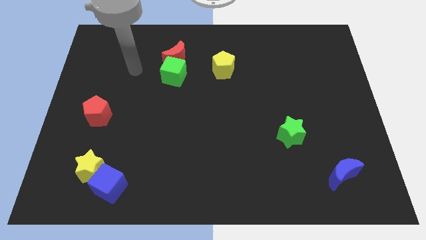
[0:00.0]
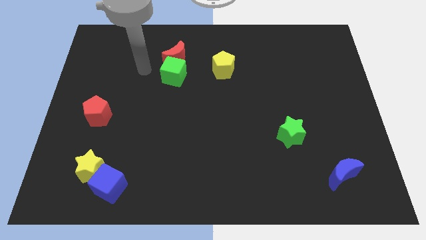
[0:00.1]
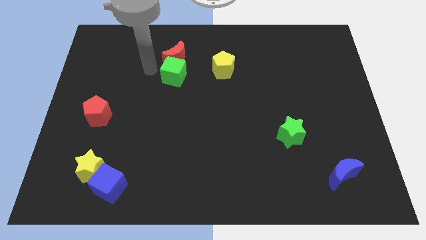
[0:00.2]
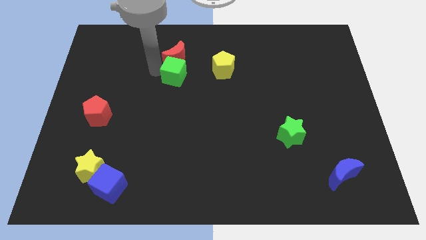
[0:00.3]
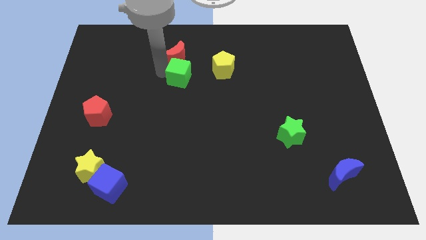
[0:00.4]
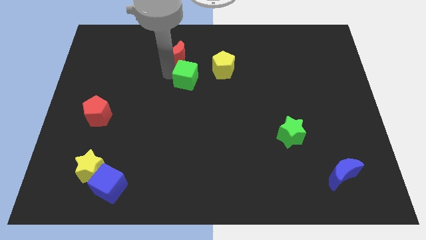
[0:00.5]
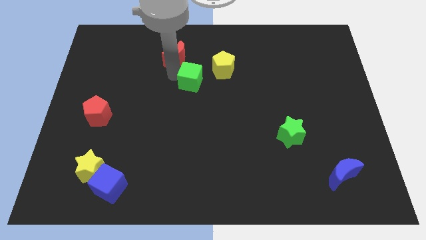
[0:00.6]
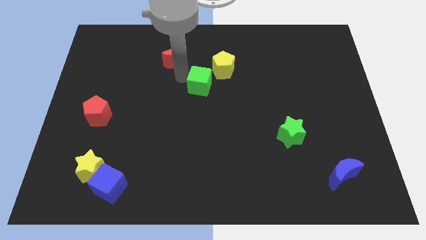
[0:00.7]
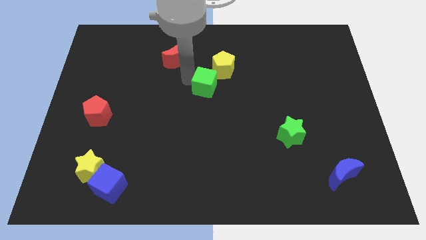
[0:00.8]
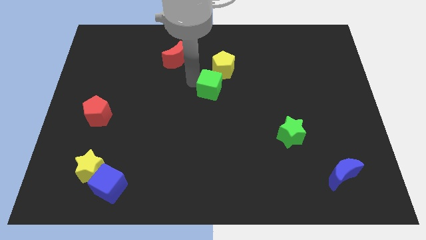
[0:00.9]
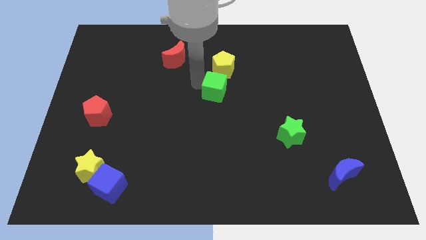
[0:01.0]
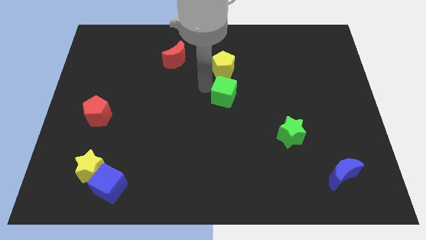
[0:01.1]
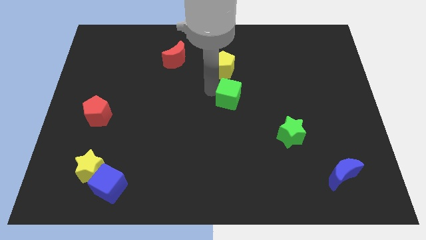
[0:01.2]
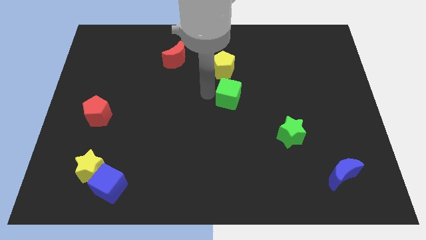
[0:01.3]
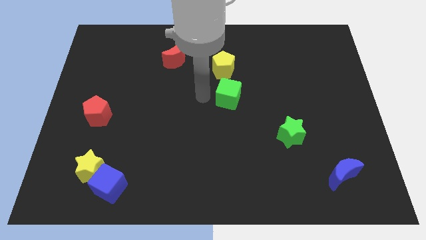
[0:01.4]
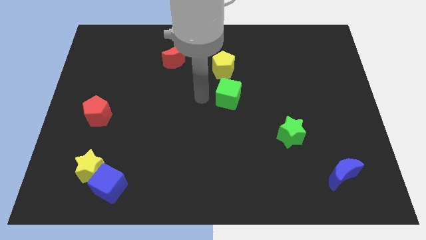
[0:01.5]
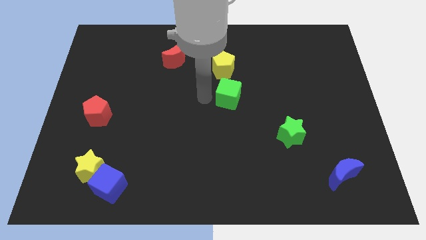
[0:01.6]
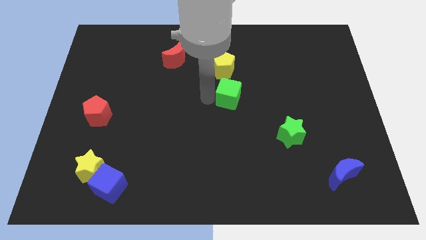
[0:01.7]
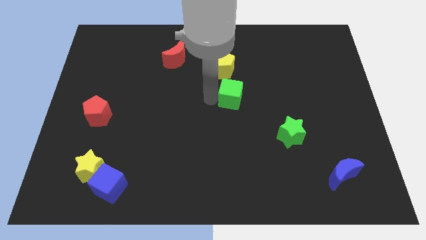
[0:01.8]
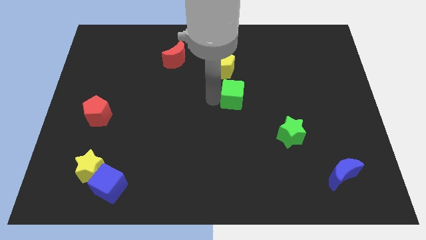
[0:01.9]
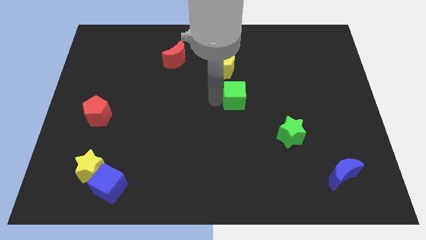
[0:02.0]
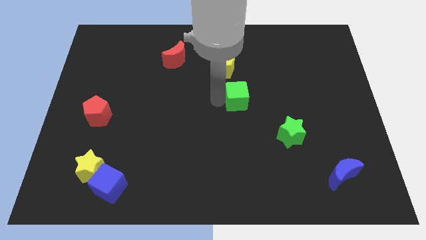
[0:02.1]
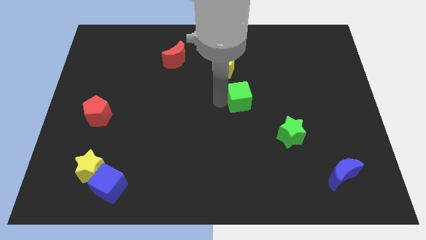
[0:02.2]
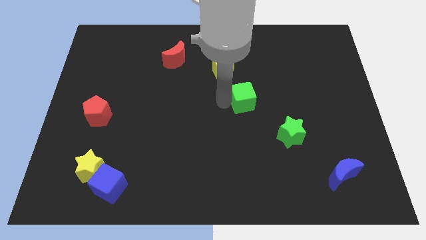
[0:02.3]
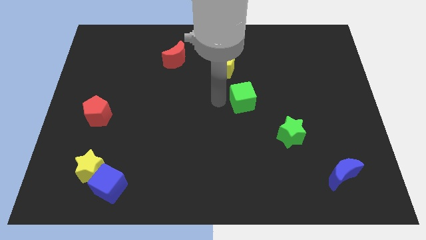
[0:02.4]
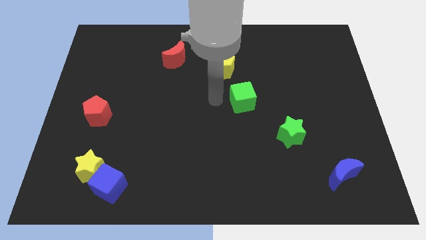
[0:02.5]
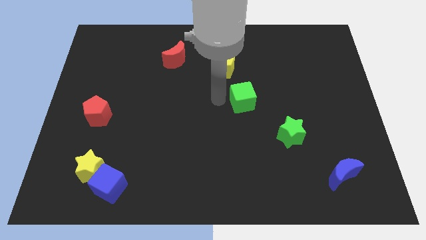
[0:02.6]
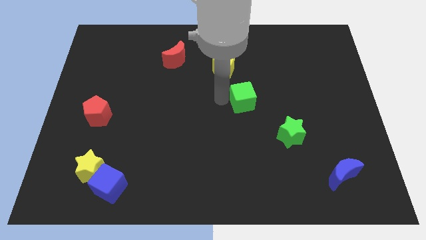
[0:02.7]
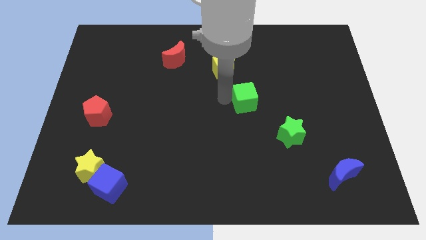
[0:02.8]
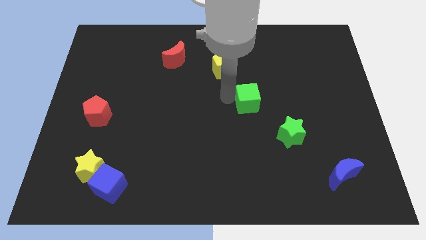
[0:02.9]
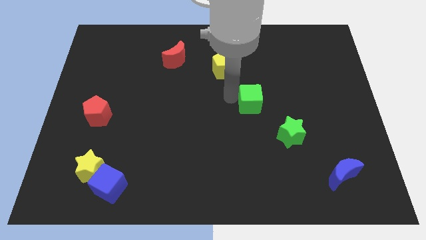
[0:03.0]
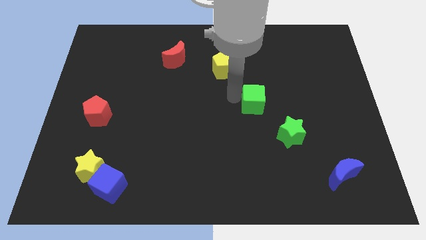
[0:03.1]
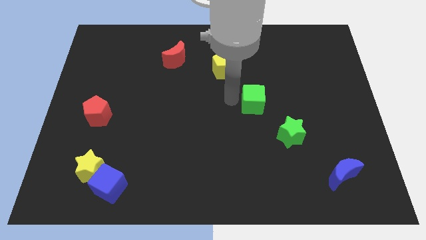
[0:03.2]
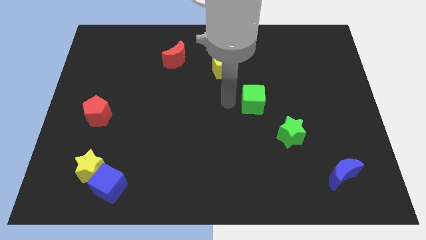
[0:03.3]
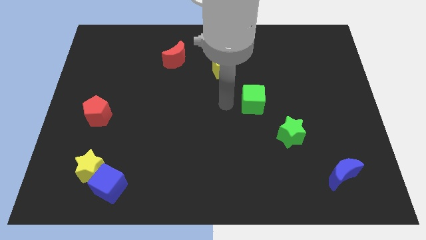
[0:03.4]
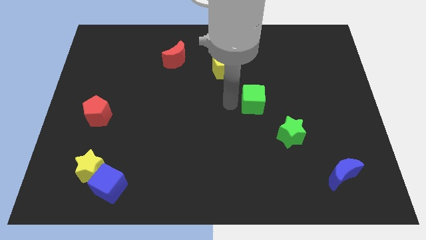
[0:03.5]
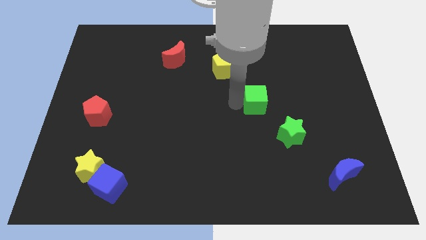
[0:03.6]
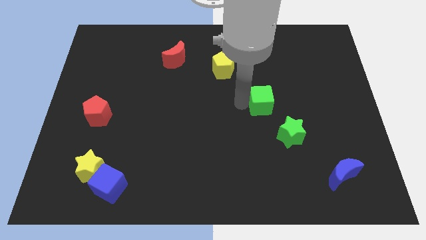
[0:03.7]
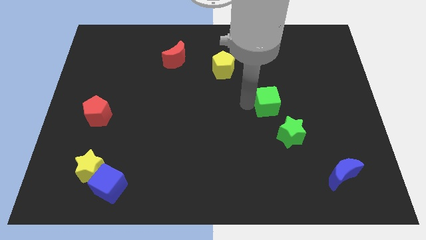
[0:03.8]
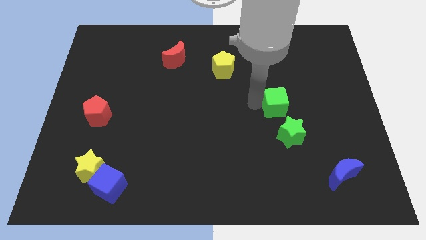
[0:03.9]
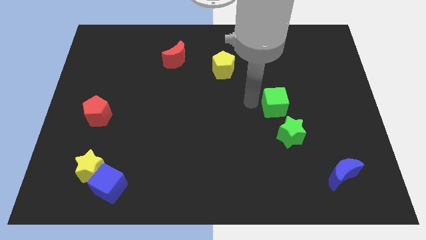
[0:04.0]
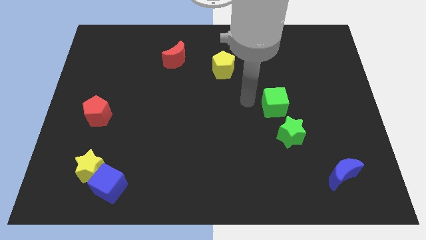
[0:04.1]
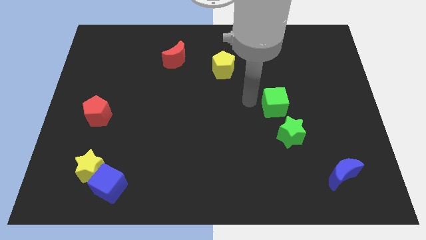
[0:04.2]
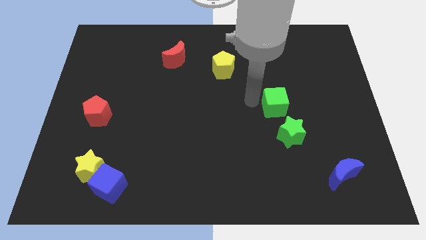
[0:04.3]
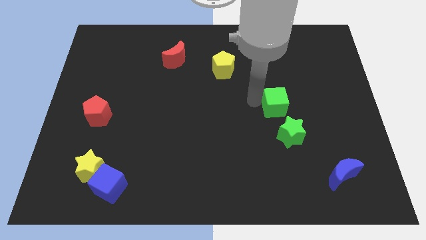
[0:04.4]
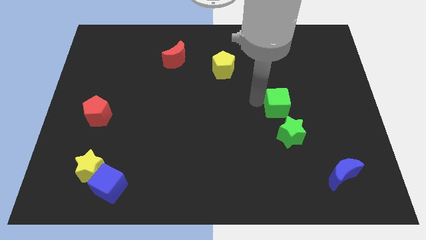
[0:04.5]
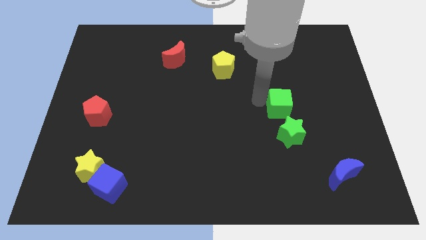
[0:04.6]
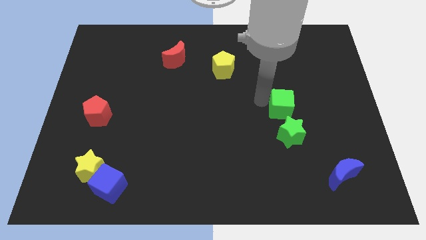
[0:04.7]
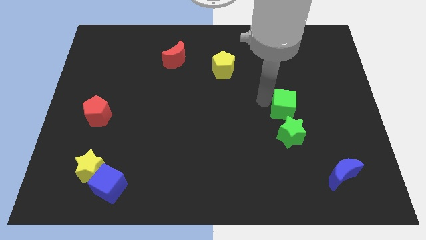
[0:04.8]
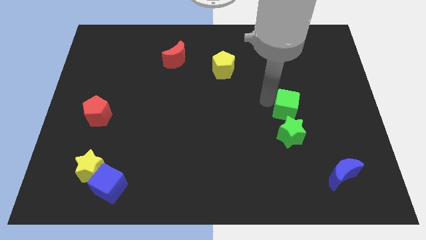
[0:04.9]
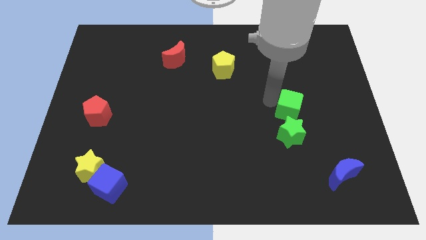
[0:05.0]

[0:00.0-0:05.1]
move the green cube to the top right side of the green star

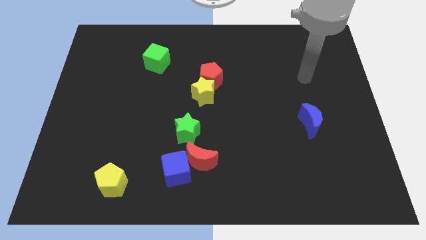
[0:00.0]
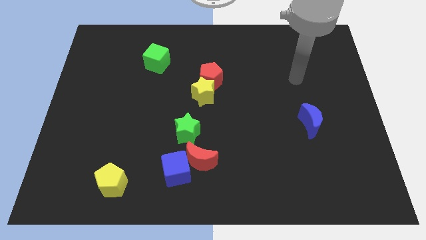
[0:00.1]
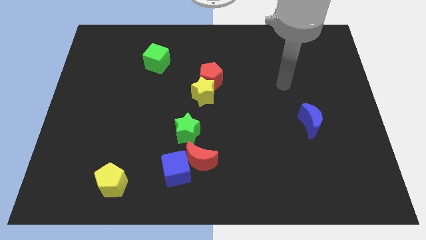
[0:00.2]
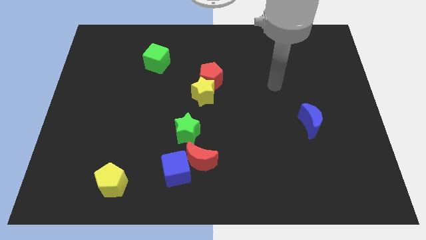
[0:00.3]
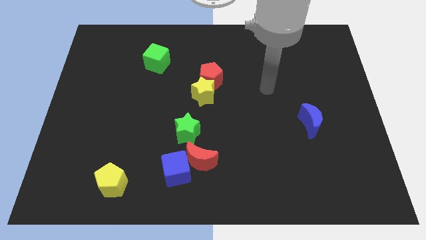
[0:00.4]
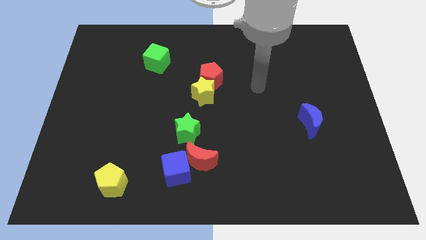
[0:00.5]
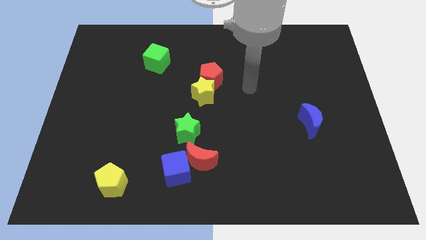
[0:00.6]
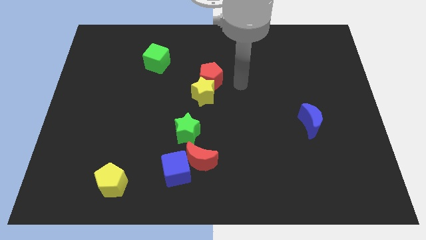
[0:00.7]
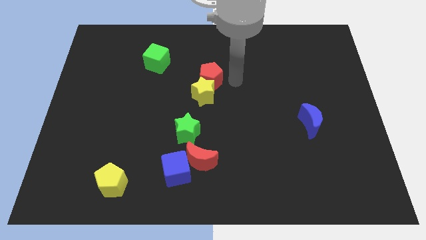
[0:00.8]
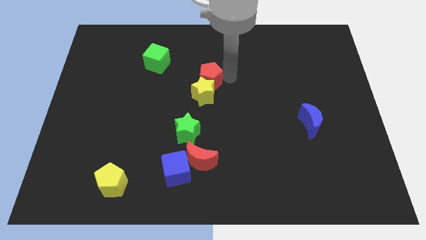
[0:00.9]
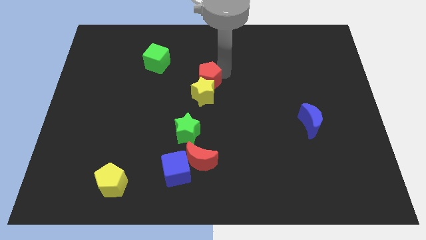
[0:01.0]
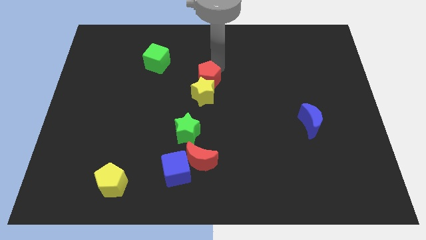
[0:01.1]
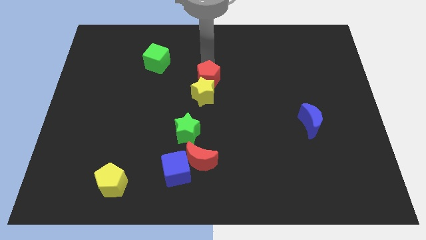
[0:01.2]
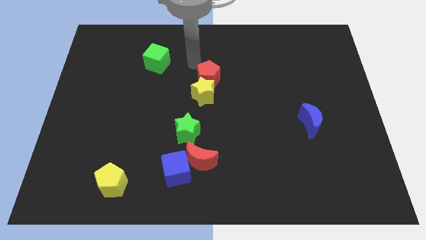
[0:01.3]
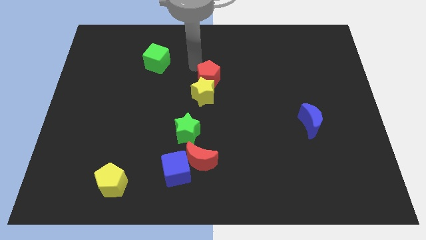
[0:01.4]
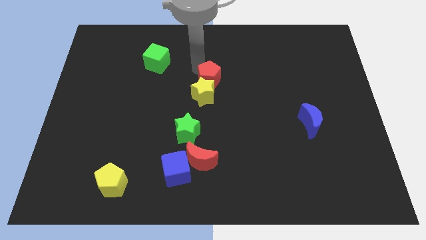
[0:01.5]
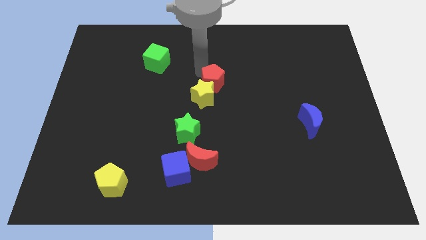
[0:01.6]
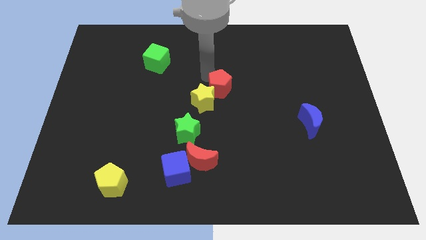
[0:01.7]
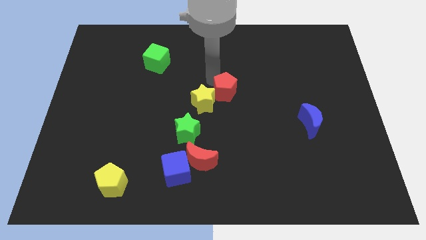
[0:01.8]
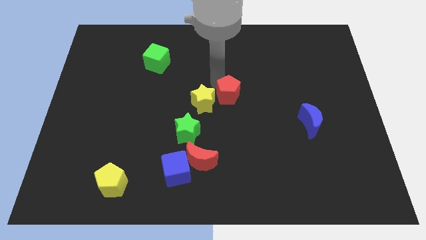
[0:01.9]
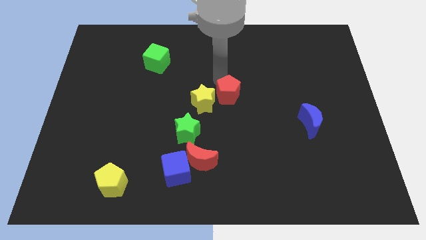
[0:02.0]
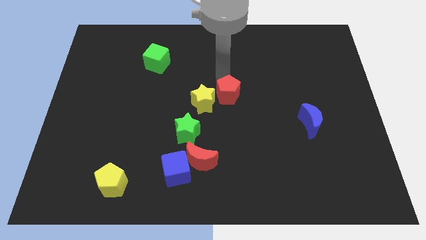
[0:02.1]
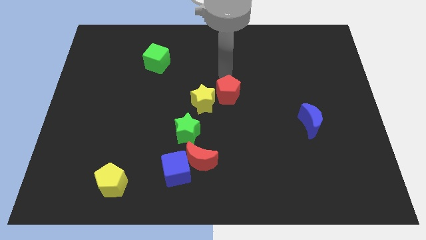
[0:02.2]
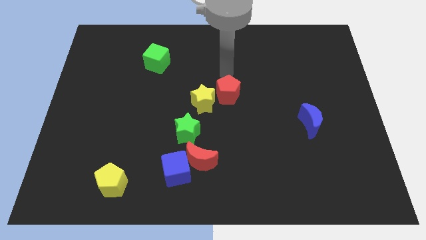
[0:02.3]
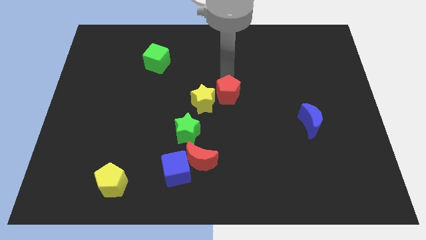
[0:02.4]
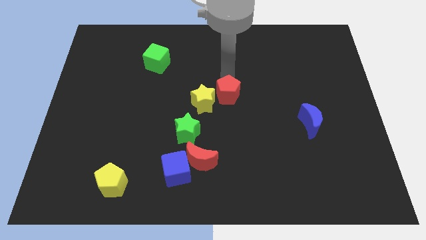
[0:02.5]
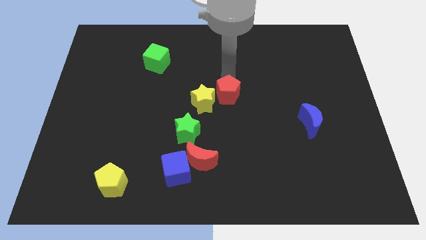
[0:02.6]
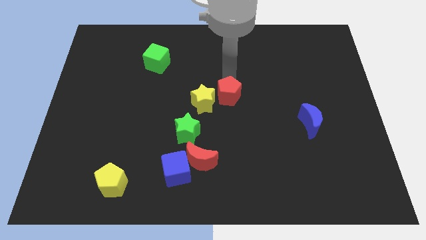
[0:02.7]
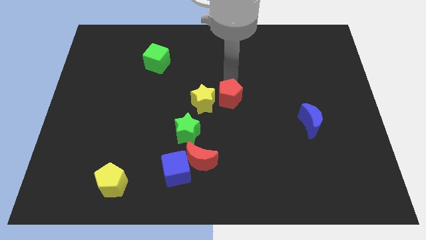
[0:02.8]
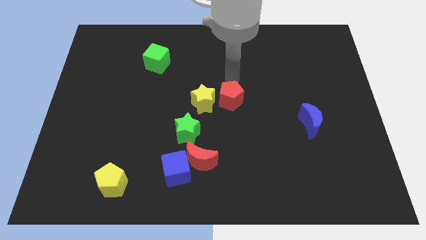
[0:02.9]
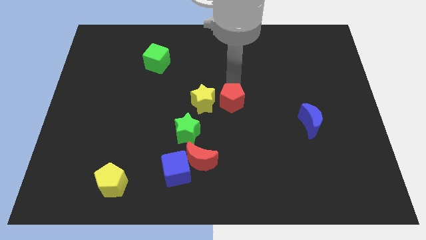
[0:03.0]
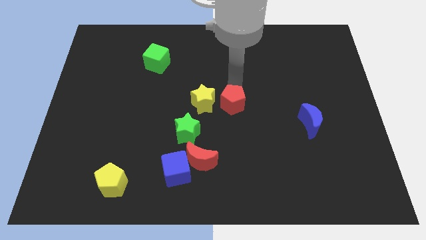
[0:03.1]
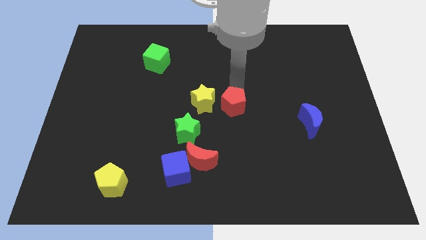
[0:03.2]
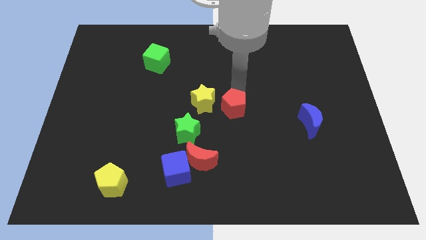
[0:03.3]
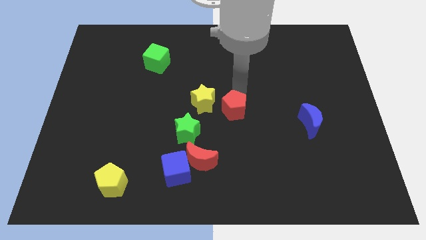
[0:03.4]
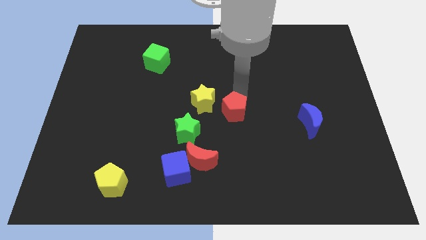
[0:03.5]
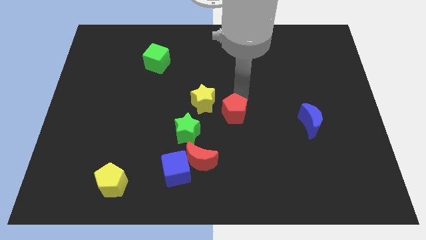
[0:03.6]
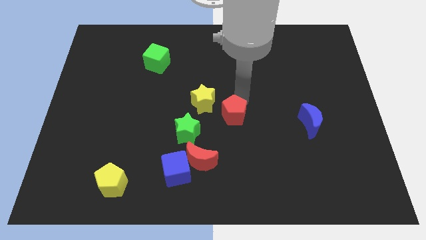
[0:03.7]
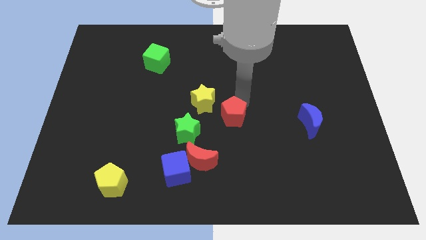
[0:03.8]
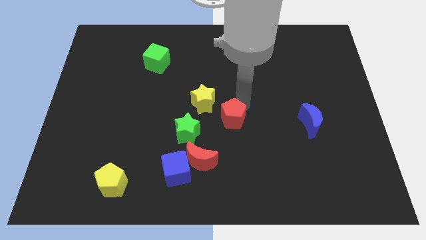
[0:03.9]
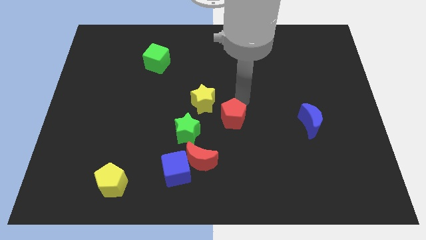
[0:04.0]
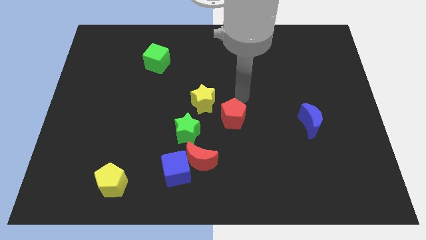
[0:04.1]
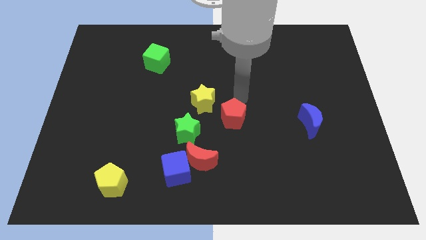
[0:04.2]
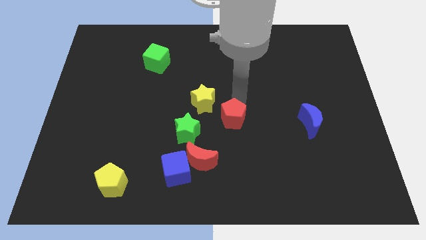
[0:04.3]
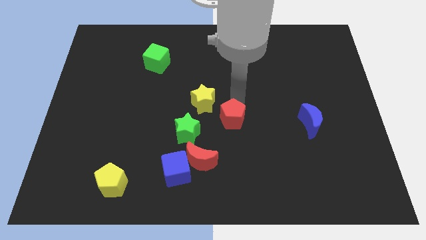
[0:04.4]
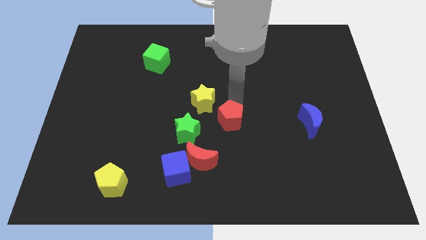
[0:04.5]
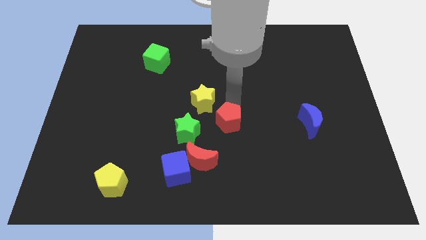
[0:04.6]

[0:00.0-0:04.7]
put the red pentagon to the top right side of the red moon
